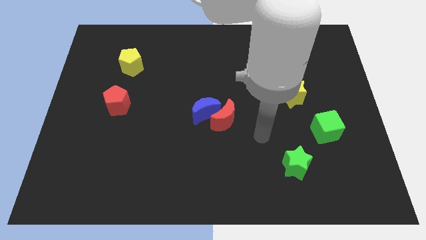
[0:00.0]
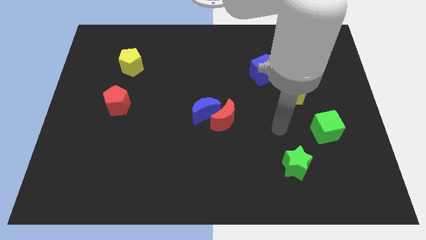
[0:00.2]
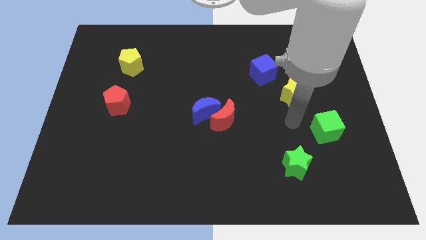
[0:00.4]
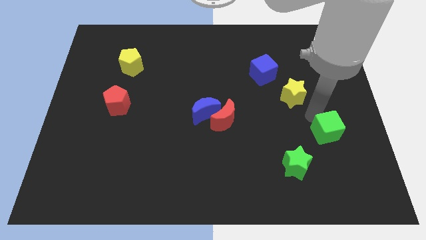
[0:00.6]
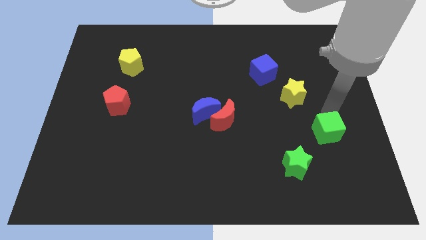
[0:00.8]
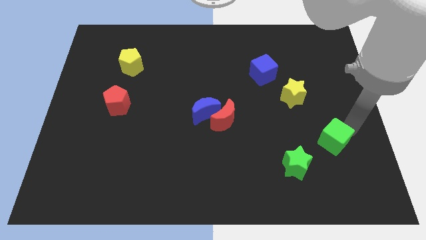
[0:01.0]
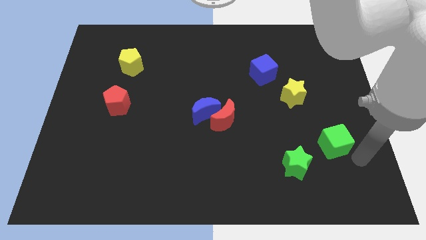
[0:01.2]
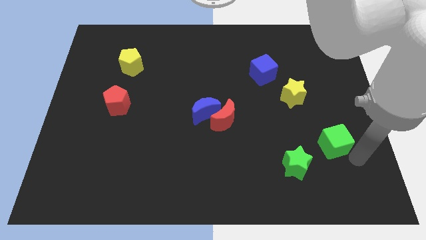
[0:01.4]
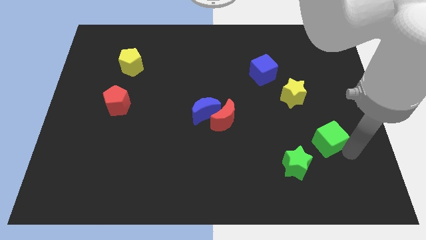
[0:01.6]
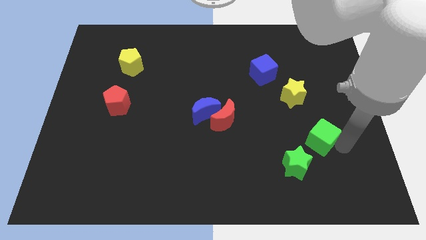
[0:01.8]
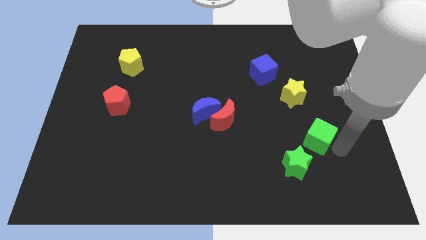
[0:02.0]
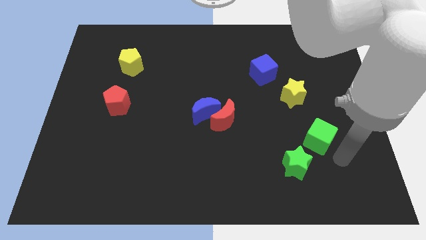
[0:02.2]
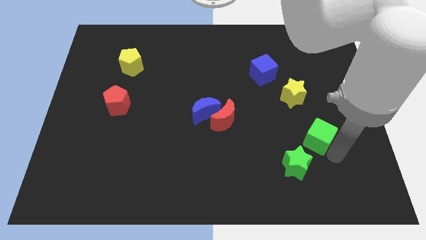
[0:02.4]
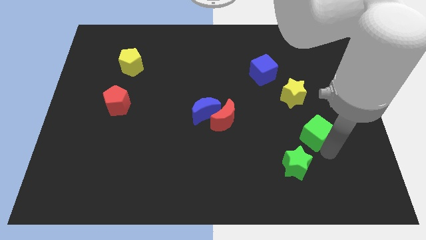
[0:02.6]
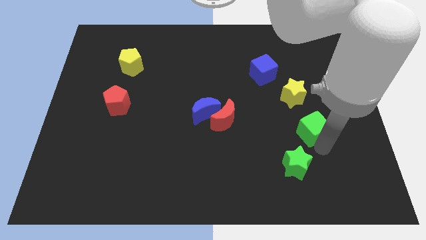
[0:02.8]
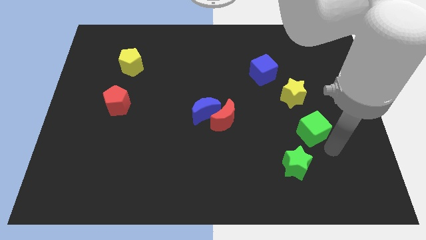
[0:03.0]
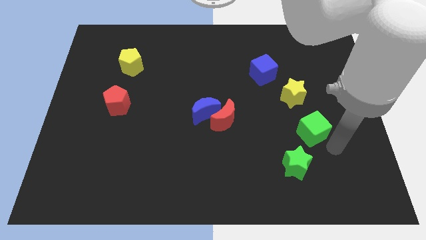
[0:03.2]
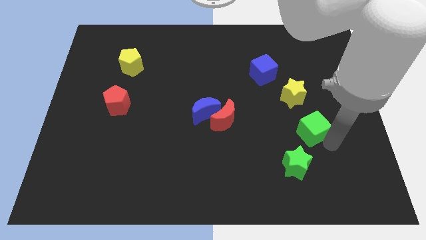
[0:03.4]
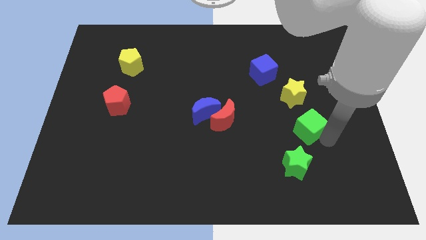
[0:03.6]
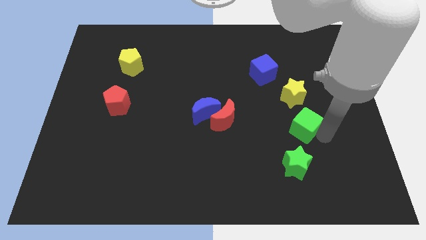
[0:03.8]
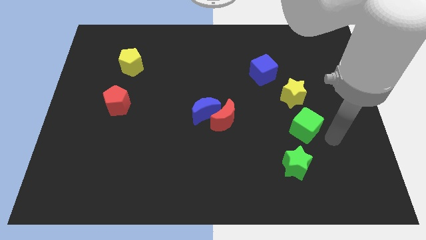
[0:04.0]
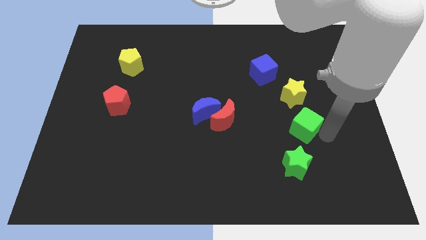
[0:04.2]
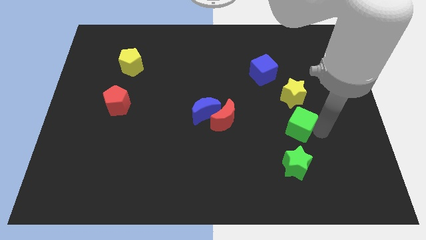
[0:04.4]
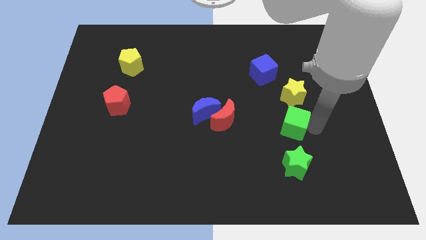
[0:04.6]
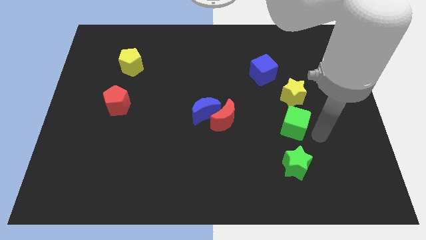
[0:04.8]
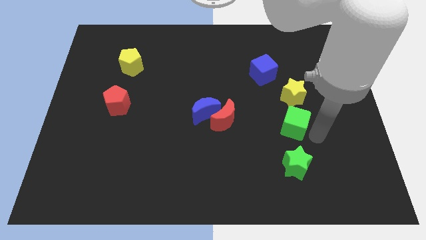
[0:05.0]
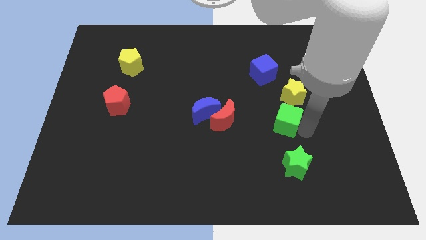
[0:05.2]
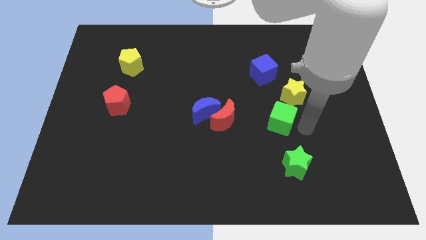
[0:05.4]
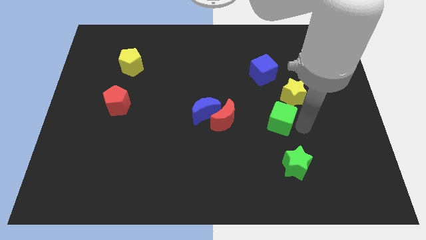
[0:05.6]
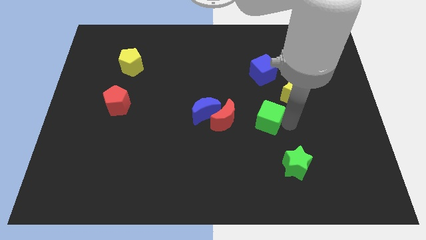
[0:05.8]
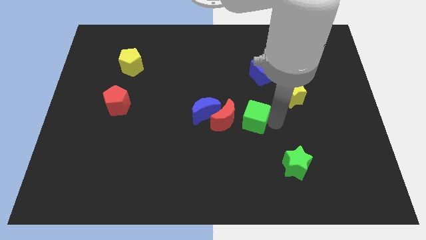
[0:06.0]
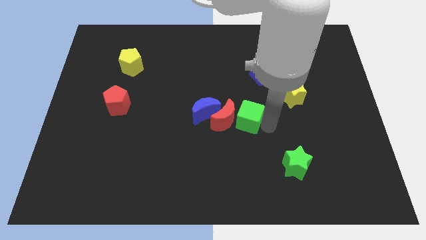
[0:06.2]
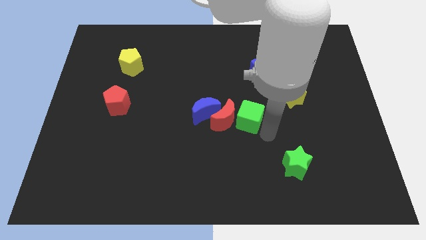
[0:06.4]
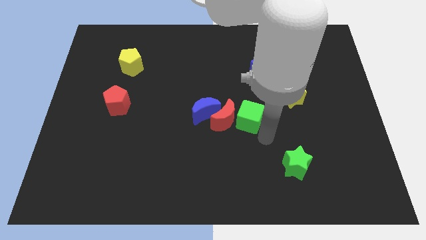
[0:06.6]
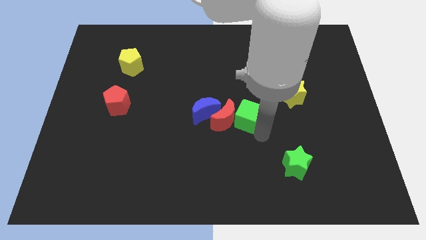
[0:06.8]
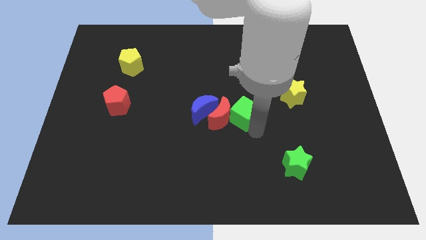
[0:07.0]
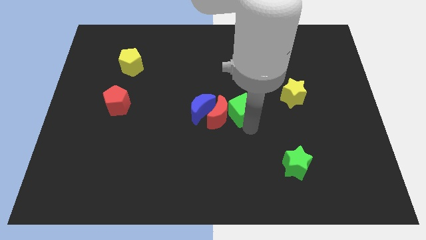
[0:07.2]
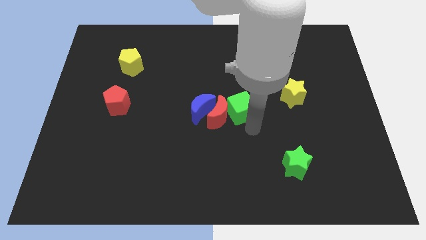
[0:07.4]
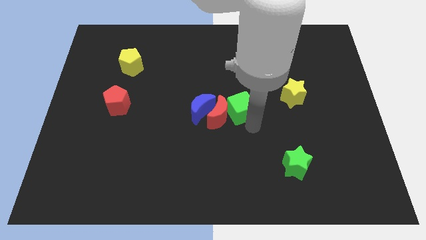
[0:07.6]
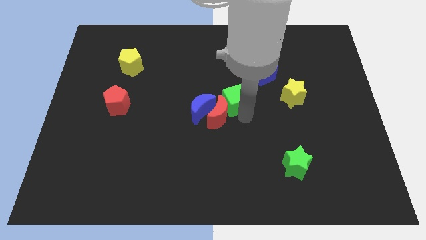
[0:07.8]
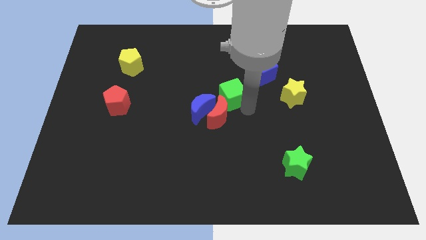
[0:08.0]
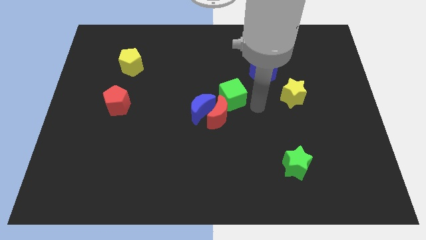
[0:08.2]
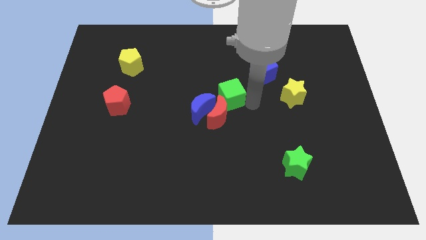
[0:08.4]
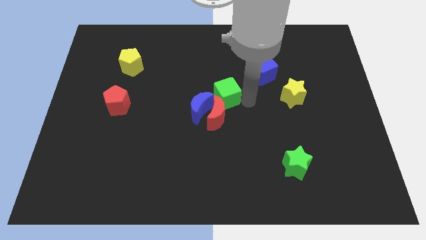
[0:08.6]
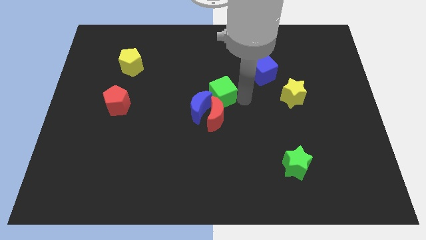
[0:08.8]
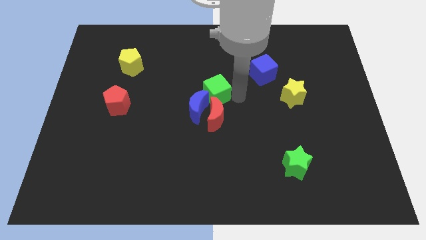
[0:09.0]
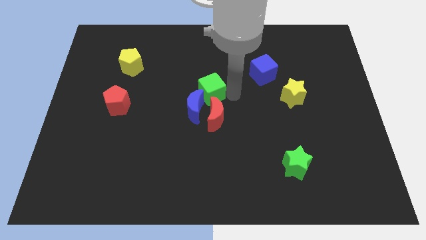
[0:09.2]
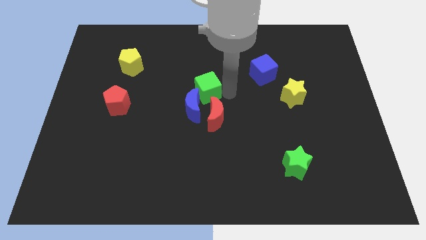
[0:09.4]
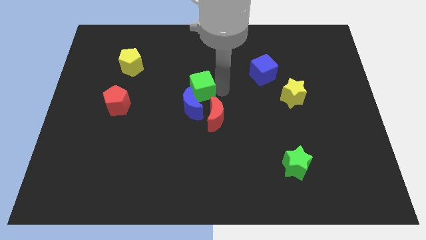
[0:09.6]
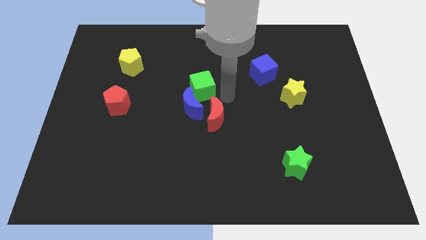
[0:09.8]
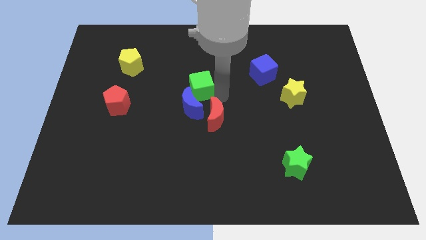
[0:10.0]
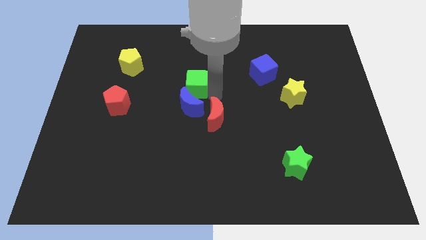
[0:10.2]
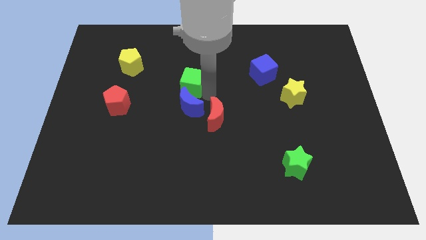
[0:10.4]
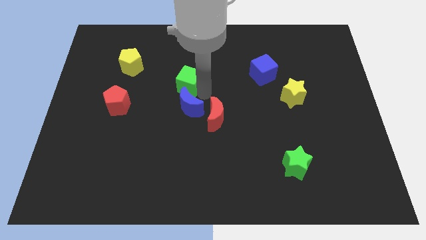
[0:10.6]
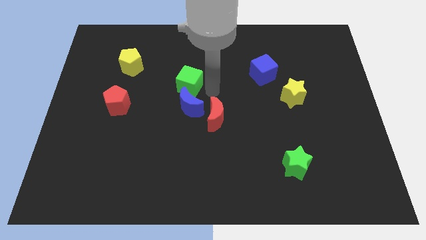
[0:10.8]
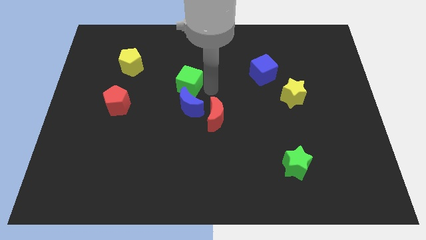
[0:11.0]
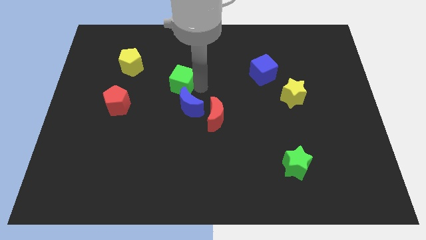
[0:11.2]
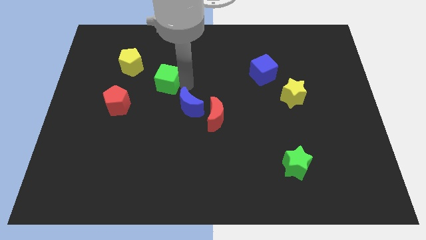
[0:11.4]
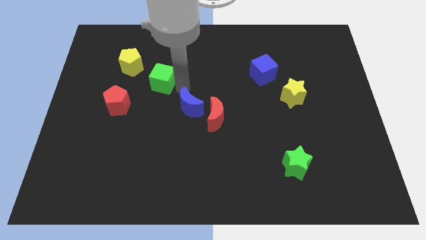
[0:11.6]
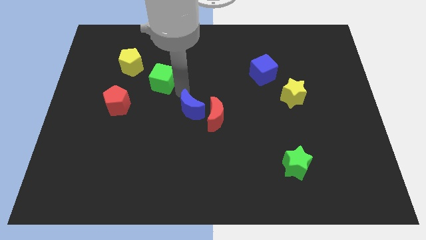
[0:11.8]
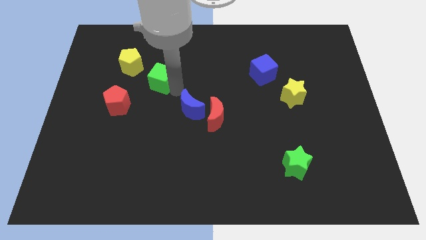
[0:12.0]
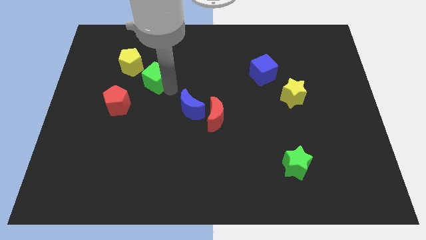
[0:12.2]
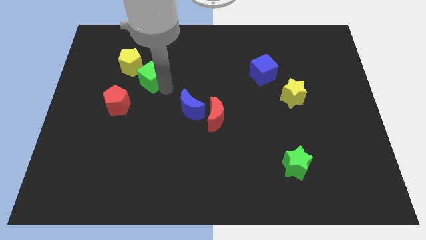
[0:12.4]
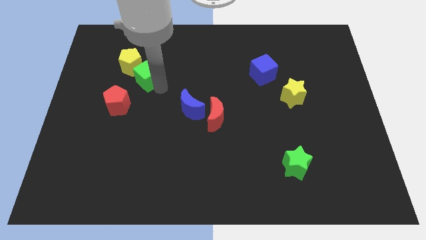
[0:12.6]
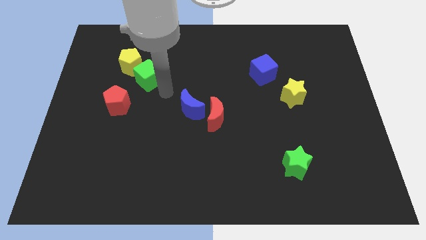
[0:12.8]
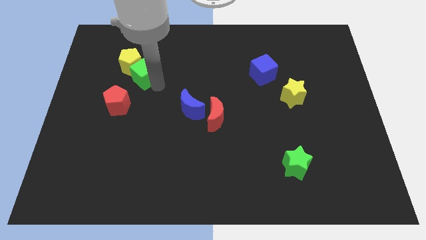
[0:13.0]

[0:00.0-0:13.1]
put the green cube close to the yellow pentagon
